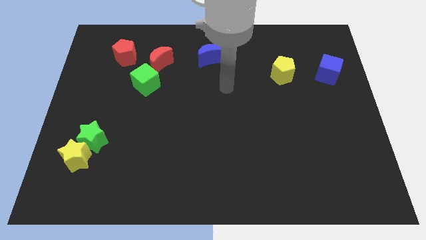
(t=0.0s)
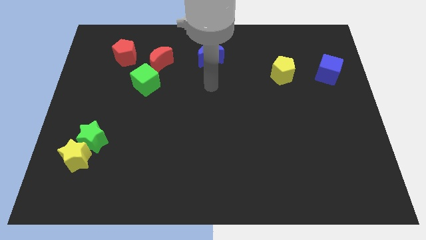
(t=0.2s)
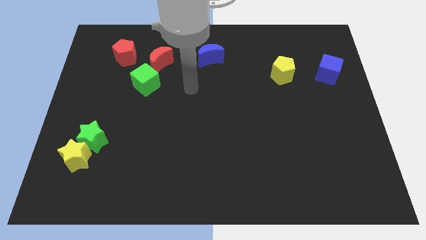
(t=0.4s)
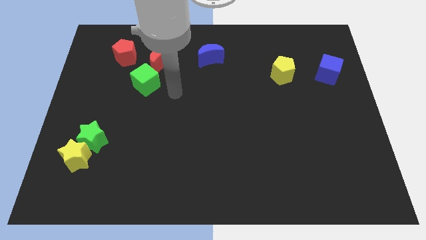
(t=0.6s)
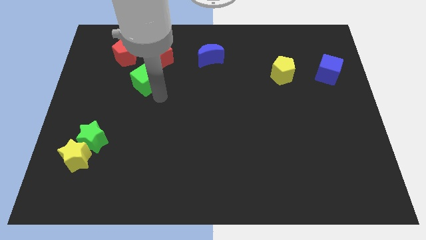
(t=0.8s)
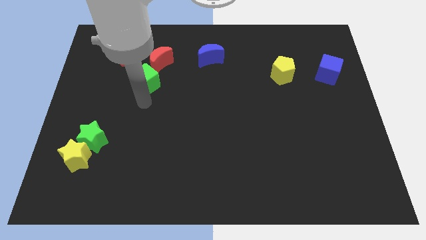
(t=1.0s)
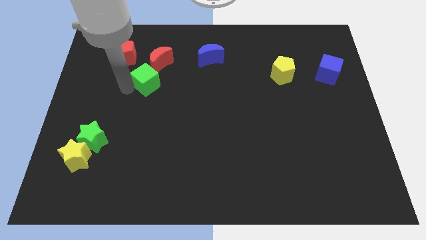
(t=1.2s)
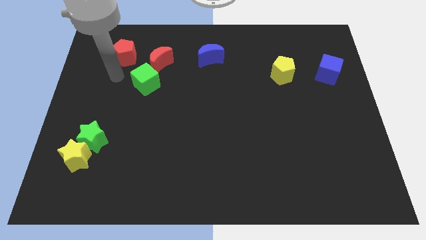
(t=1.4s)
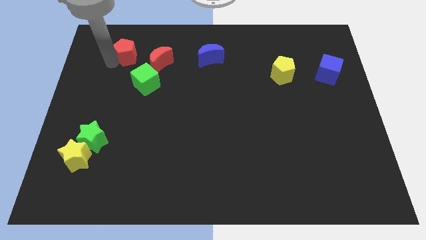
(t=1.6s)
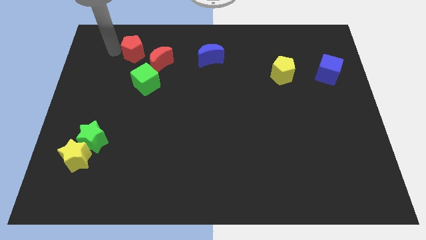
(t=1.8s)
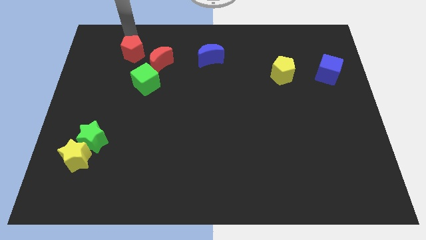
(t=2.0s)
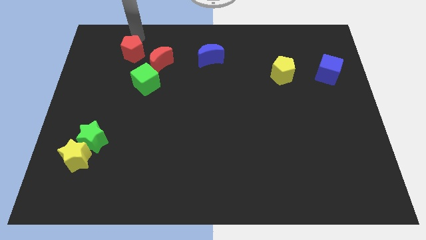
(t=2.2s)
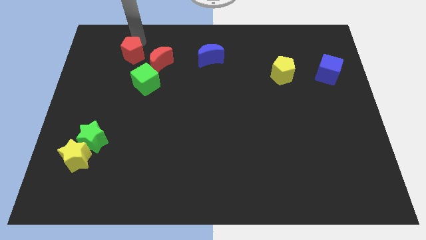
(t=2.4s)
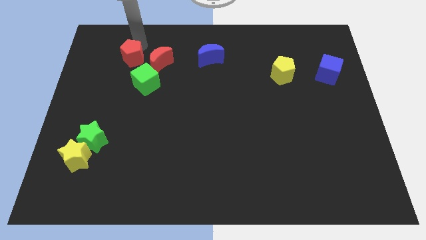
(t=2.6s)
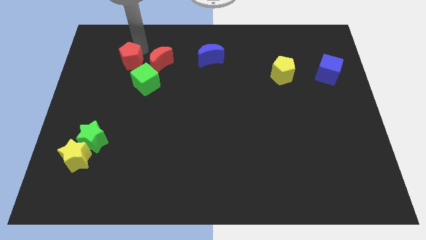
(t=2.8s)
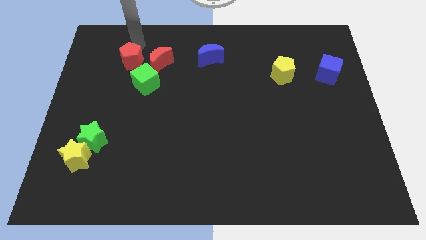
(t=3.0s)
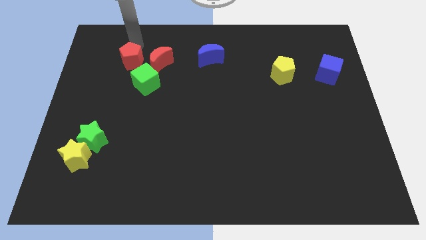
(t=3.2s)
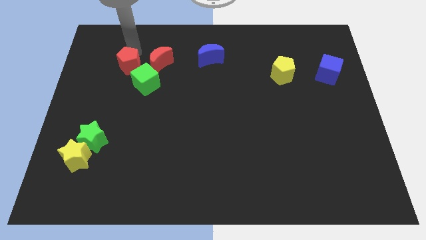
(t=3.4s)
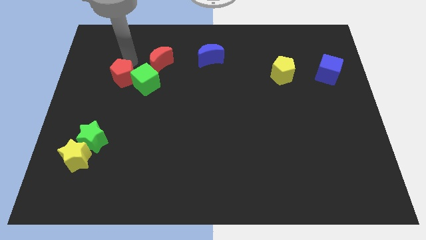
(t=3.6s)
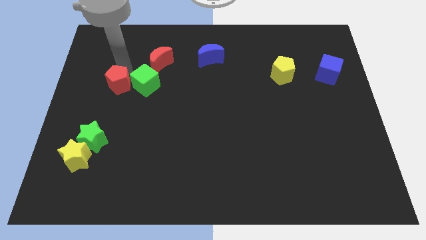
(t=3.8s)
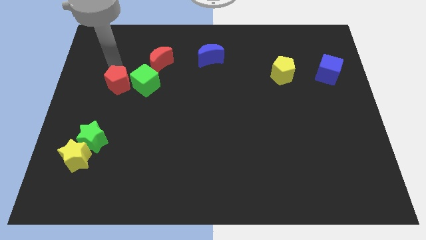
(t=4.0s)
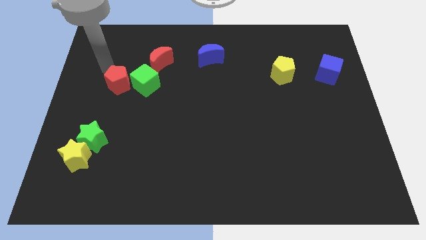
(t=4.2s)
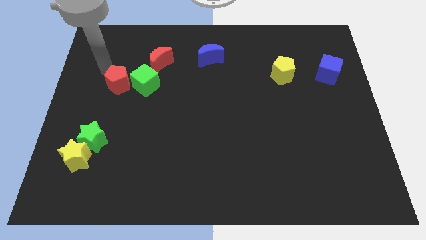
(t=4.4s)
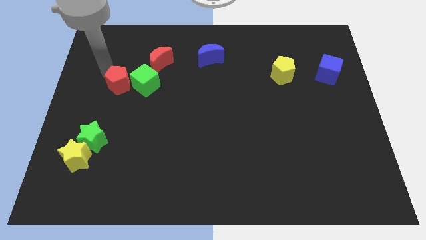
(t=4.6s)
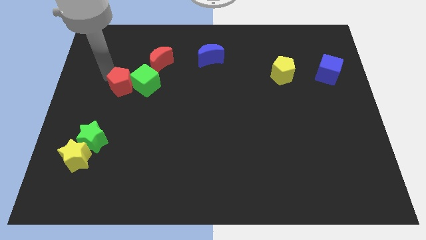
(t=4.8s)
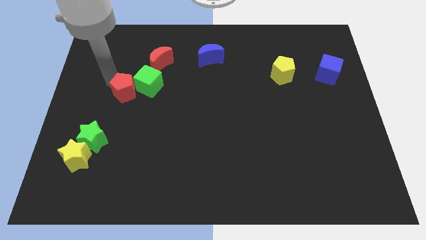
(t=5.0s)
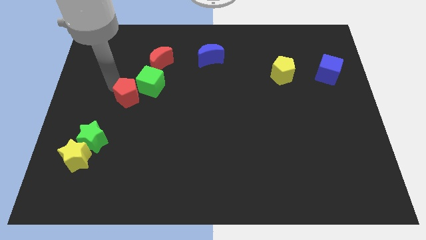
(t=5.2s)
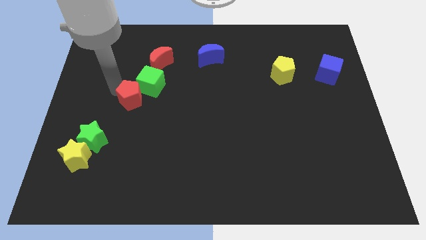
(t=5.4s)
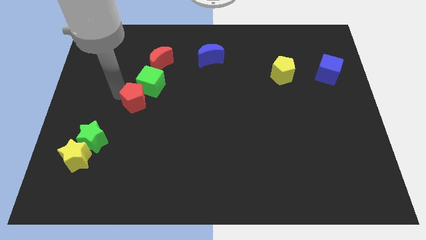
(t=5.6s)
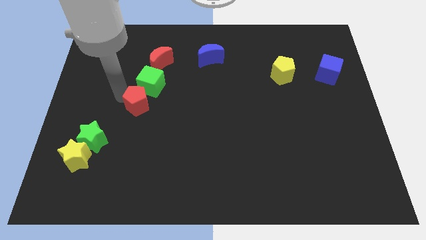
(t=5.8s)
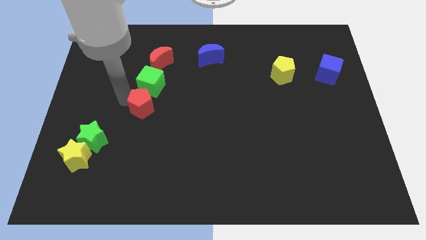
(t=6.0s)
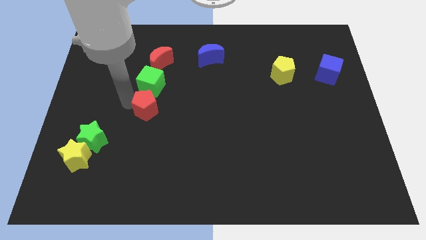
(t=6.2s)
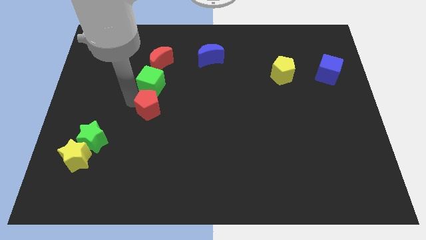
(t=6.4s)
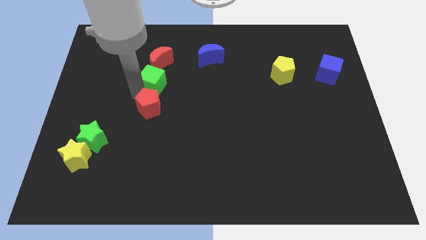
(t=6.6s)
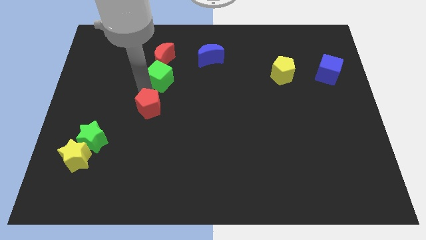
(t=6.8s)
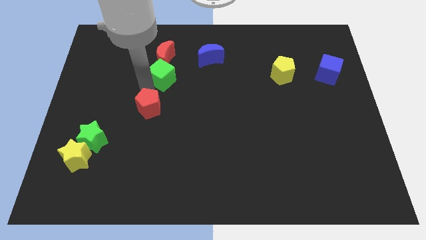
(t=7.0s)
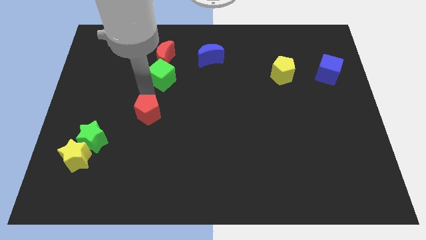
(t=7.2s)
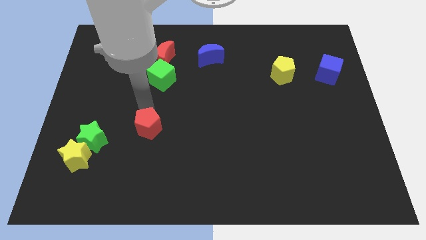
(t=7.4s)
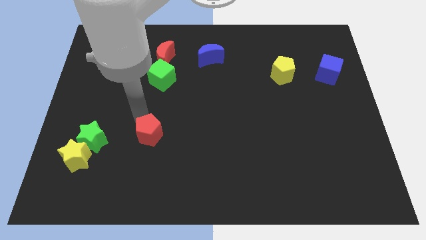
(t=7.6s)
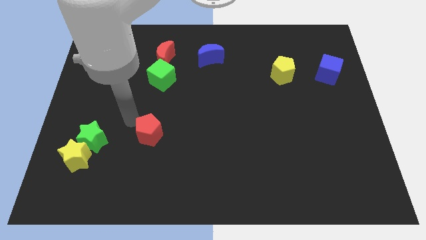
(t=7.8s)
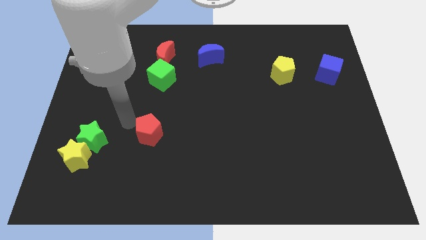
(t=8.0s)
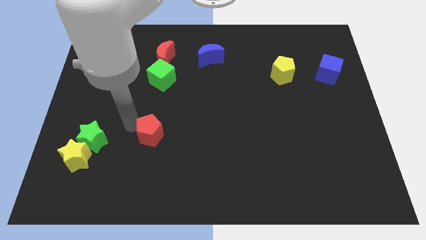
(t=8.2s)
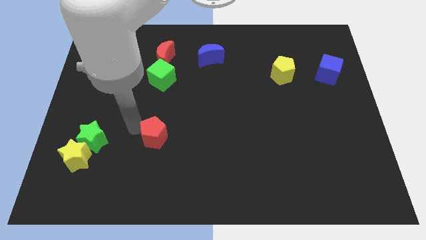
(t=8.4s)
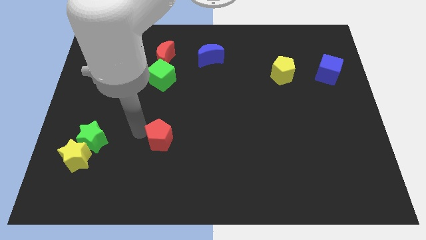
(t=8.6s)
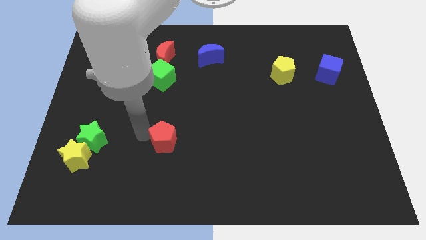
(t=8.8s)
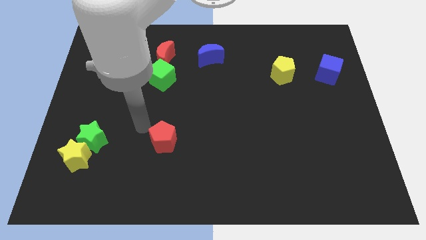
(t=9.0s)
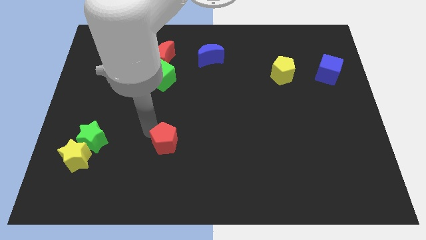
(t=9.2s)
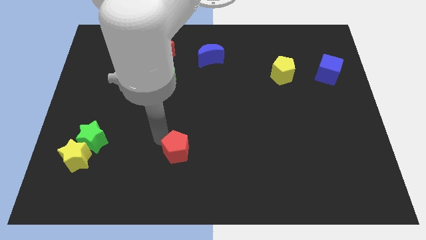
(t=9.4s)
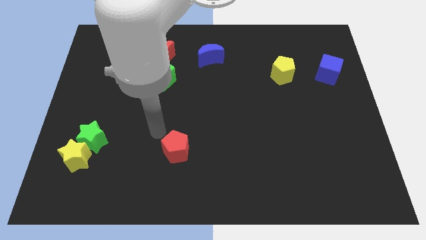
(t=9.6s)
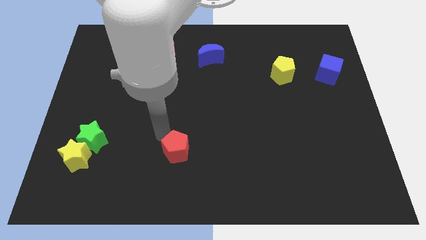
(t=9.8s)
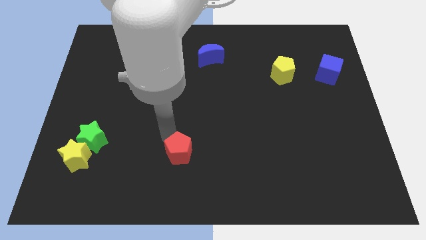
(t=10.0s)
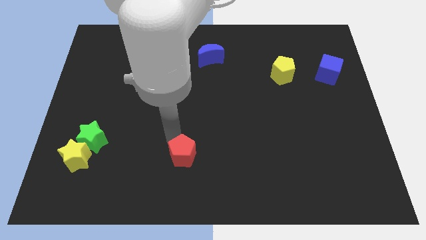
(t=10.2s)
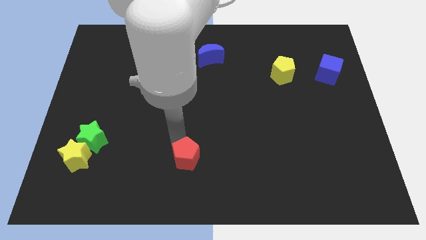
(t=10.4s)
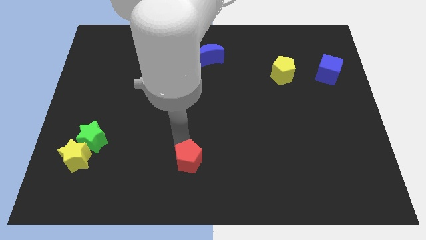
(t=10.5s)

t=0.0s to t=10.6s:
move the red pentagon to the bottom

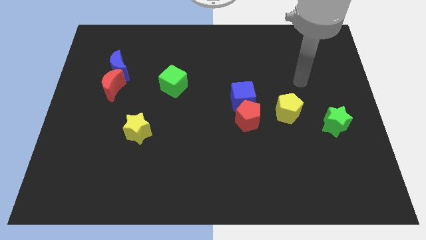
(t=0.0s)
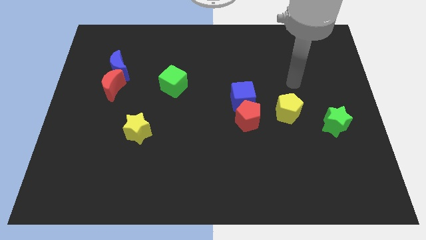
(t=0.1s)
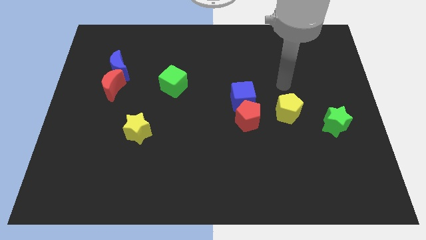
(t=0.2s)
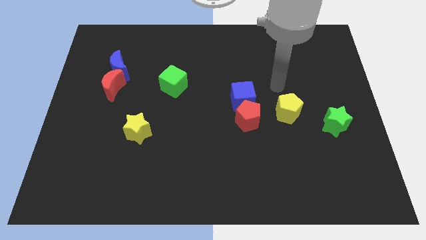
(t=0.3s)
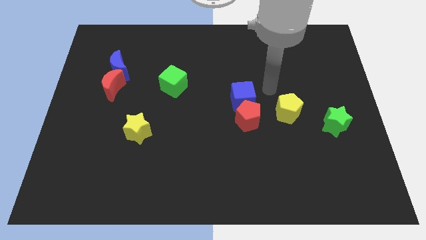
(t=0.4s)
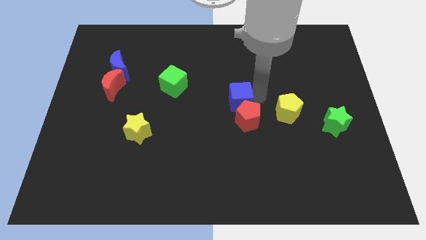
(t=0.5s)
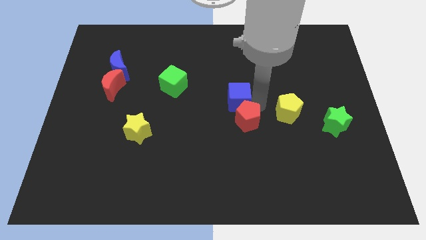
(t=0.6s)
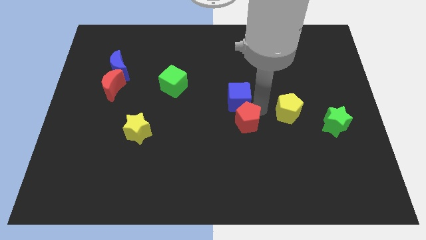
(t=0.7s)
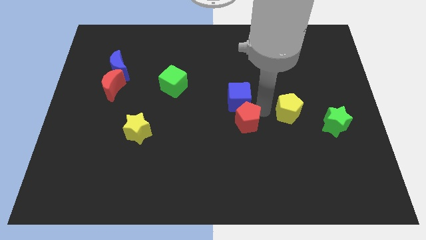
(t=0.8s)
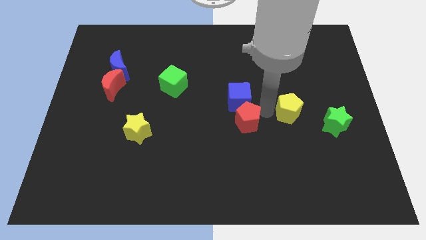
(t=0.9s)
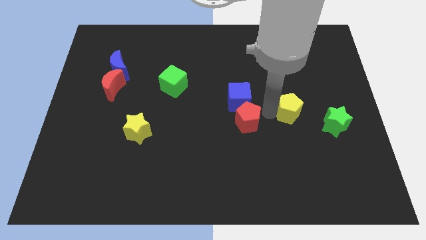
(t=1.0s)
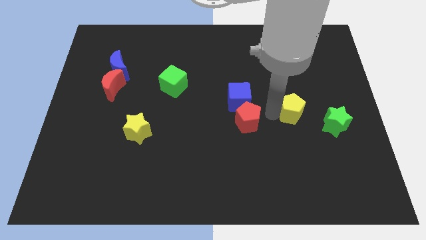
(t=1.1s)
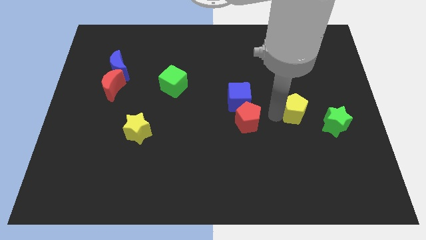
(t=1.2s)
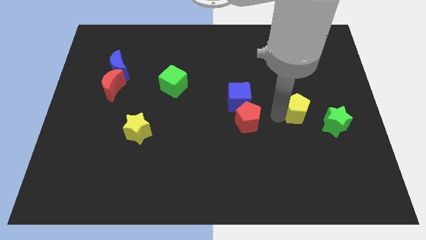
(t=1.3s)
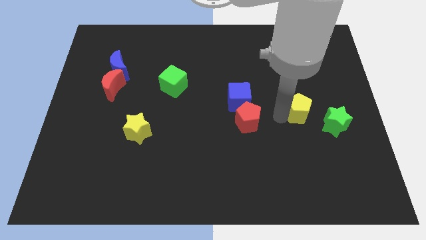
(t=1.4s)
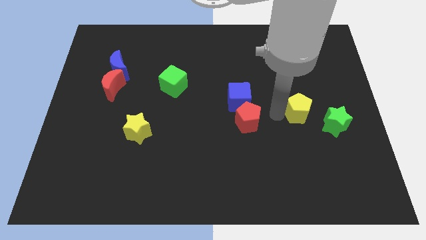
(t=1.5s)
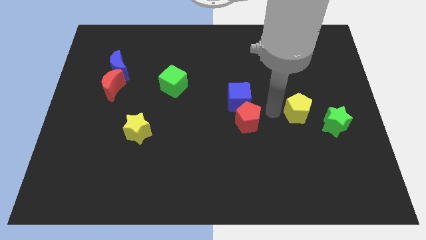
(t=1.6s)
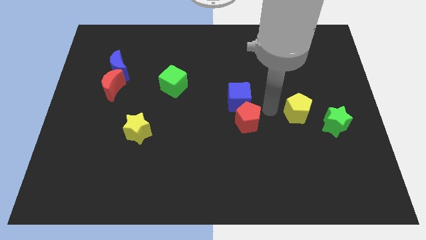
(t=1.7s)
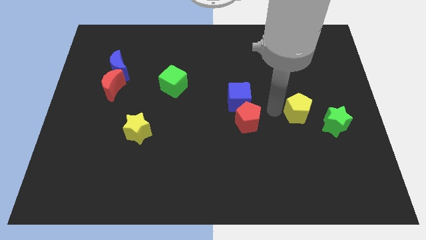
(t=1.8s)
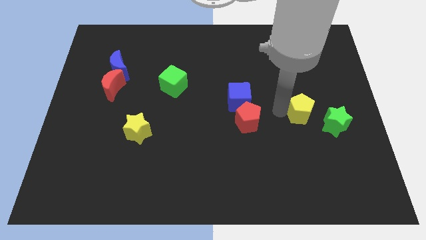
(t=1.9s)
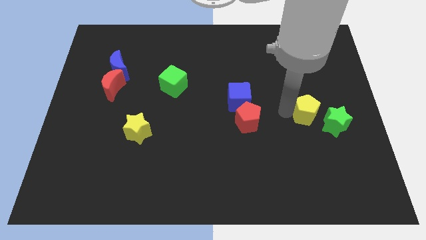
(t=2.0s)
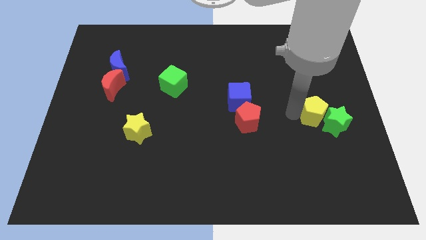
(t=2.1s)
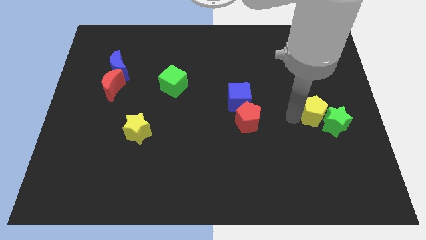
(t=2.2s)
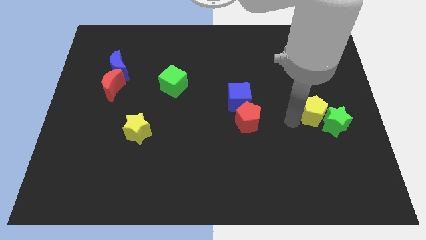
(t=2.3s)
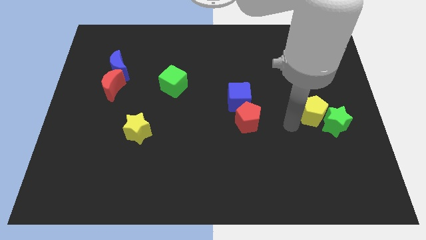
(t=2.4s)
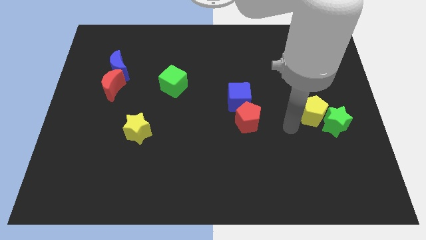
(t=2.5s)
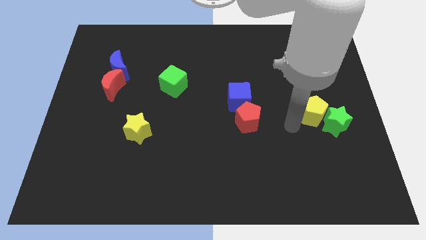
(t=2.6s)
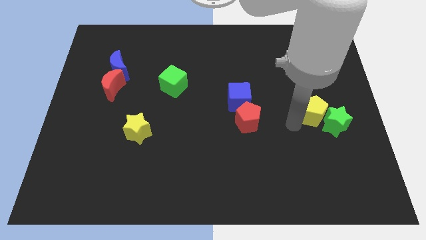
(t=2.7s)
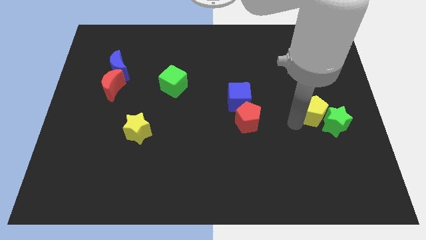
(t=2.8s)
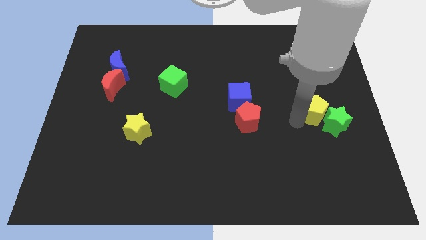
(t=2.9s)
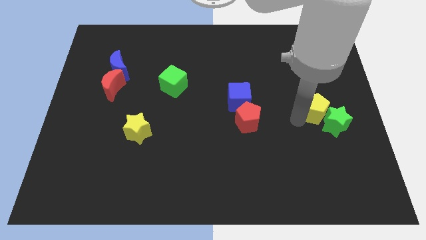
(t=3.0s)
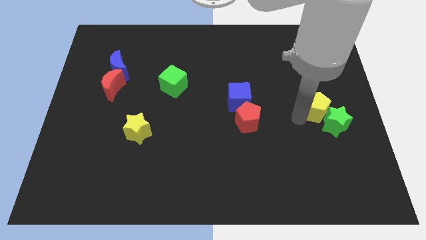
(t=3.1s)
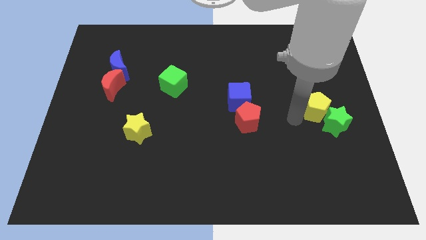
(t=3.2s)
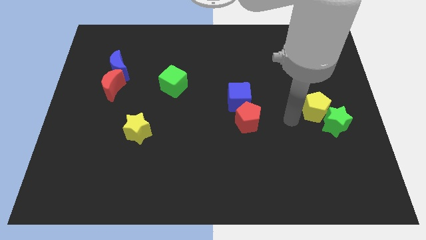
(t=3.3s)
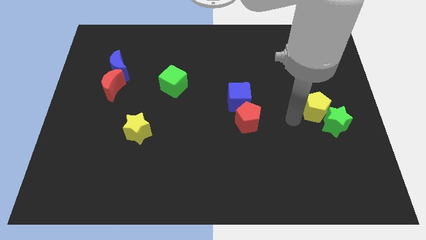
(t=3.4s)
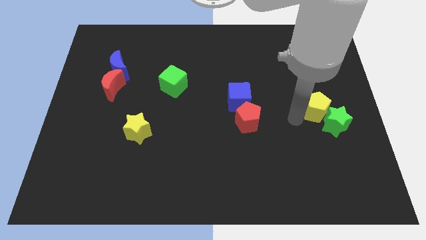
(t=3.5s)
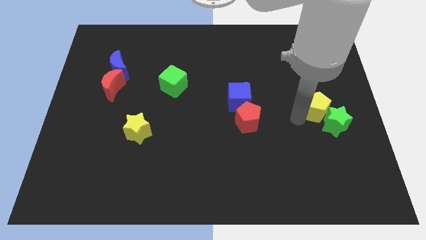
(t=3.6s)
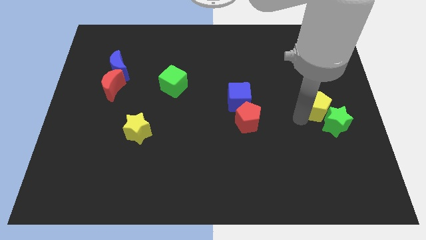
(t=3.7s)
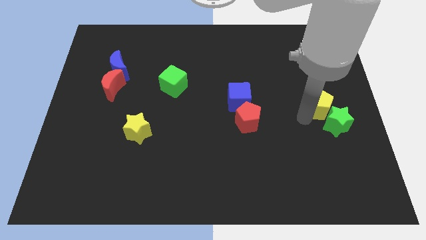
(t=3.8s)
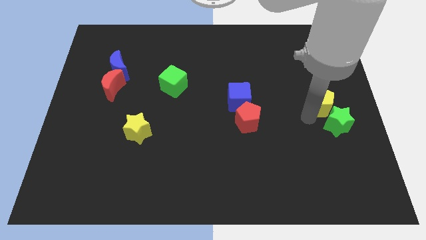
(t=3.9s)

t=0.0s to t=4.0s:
slide the yellow pentagon to the right side of the board
